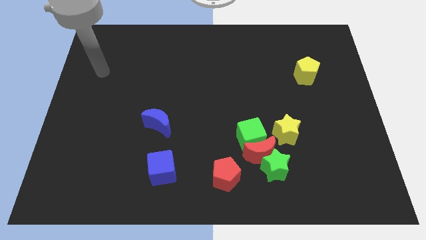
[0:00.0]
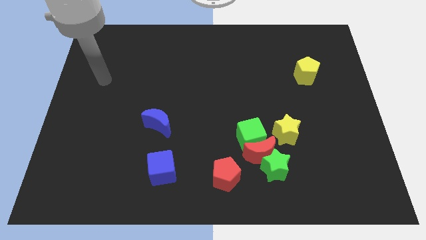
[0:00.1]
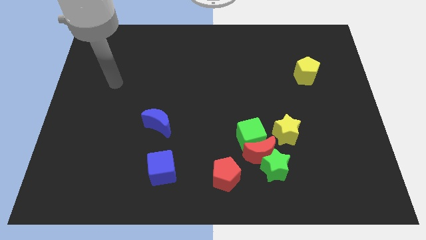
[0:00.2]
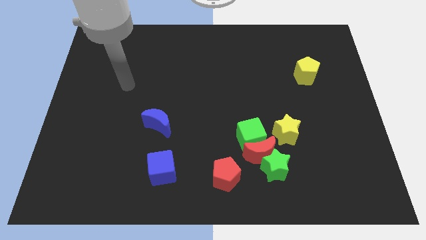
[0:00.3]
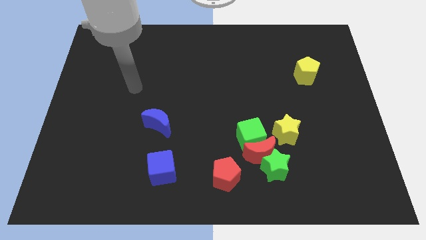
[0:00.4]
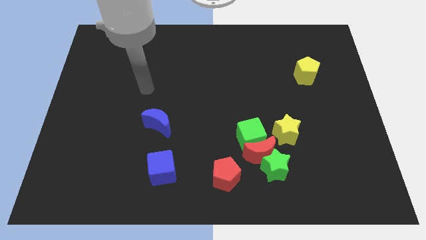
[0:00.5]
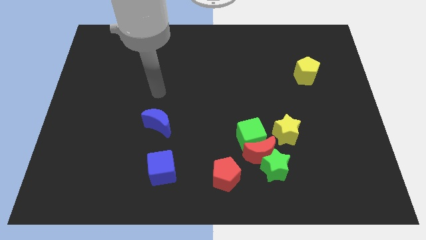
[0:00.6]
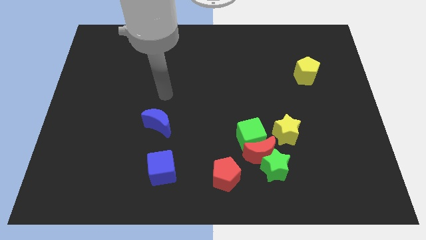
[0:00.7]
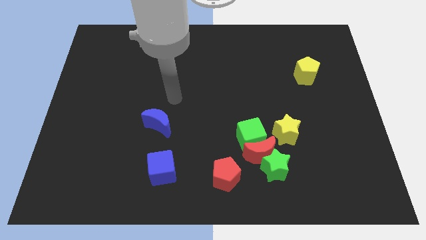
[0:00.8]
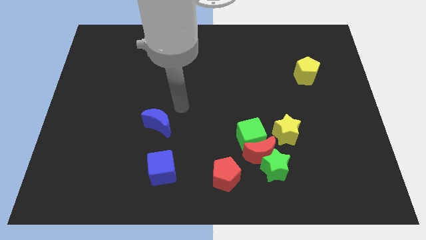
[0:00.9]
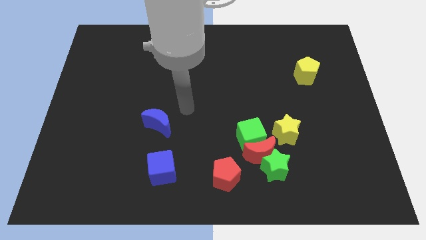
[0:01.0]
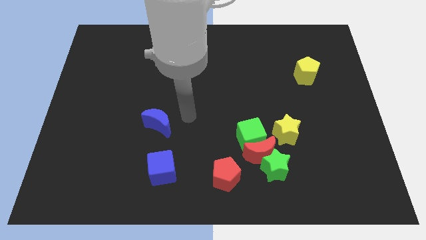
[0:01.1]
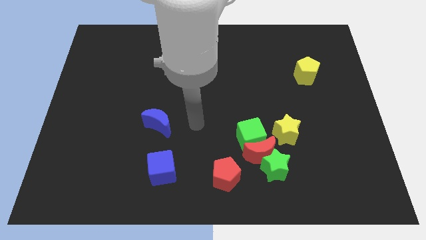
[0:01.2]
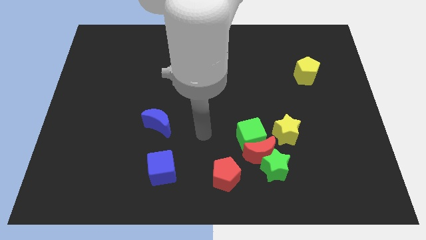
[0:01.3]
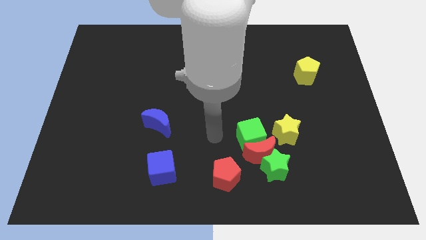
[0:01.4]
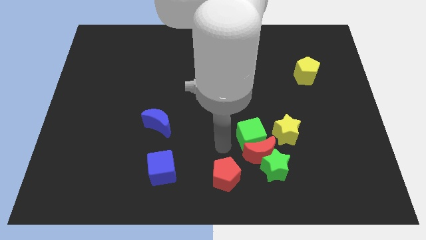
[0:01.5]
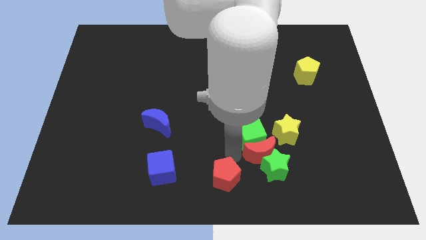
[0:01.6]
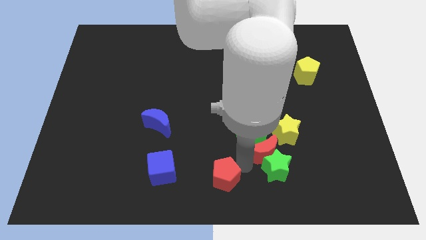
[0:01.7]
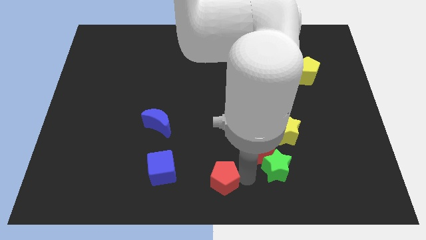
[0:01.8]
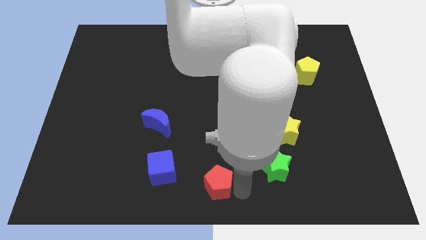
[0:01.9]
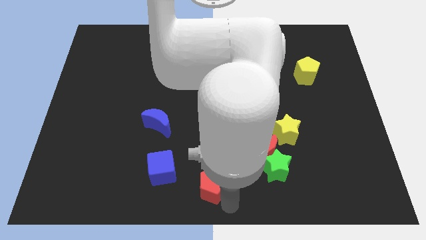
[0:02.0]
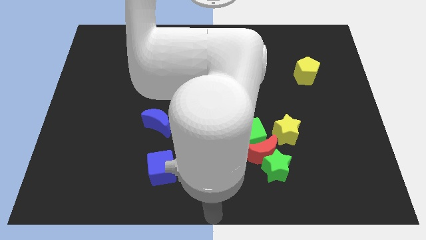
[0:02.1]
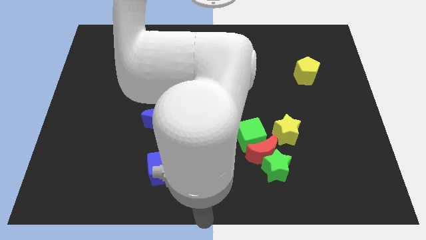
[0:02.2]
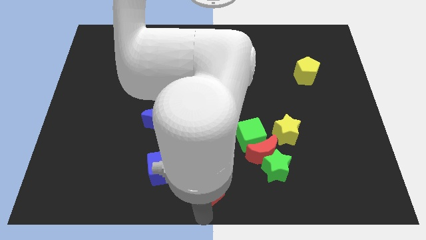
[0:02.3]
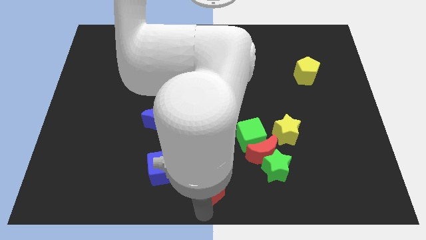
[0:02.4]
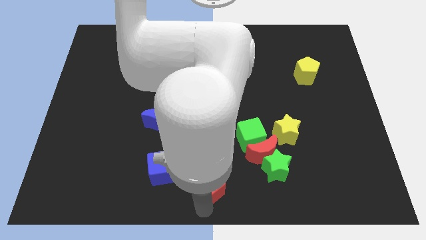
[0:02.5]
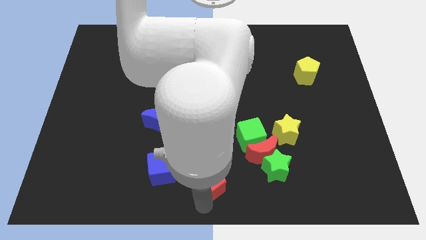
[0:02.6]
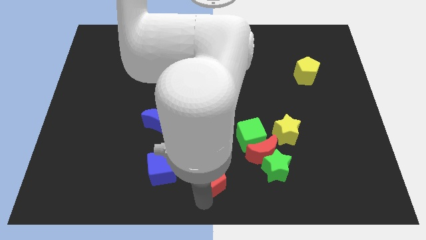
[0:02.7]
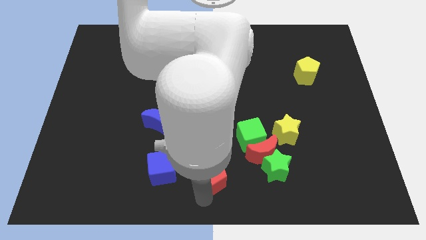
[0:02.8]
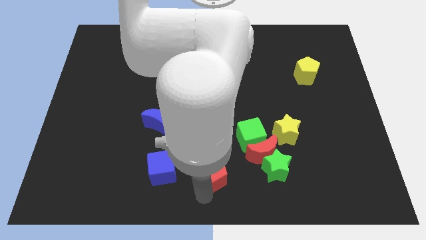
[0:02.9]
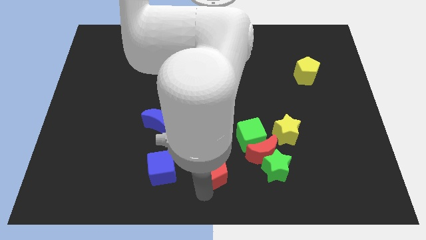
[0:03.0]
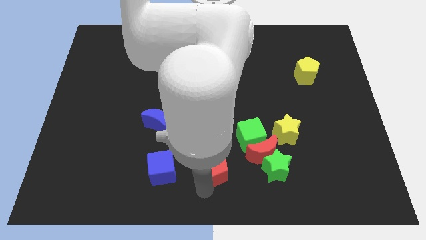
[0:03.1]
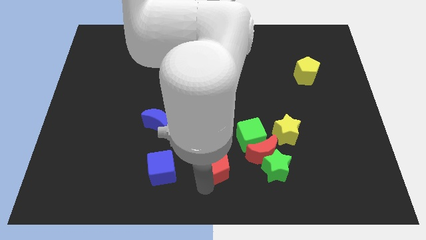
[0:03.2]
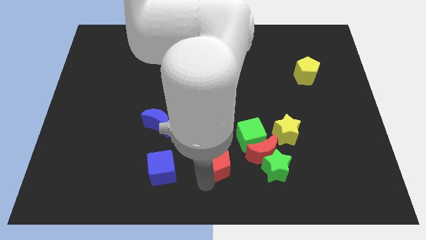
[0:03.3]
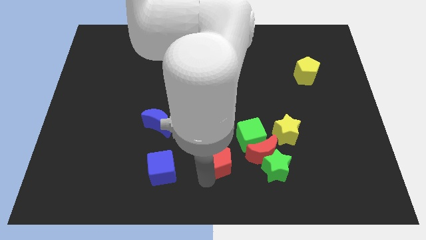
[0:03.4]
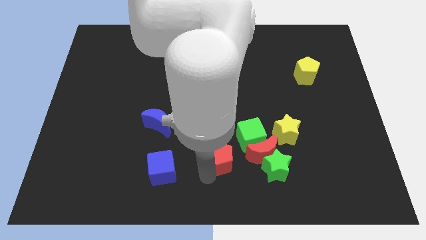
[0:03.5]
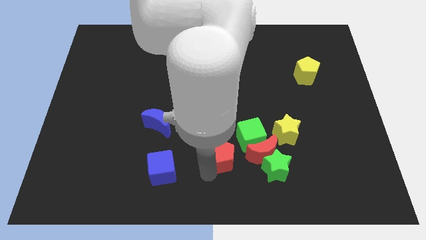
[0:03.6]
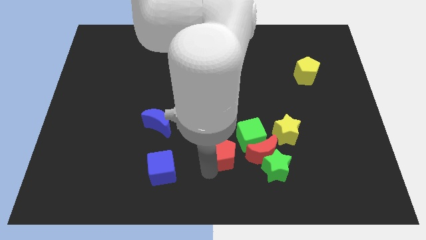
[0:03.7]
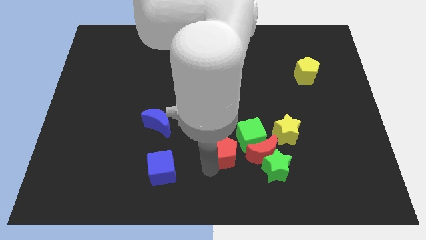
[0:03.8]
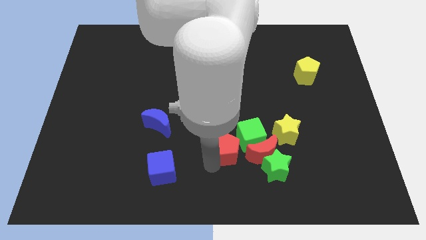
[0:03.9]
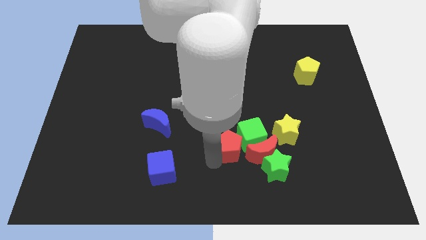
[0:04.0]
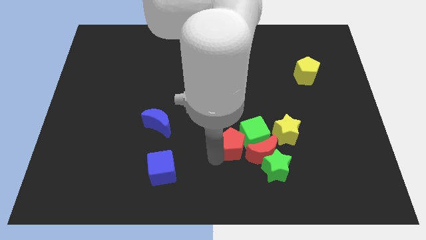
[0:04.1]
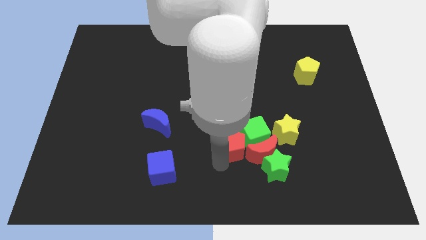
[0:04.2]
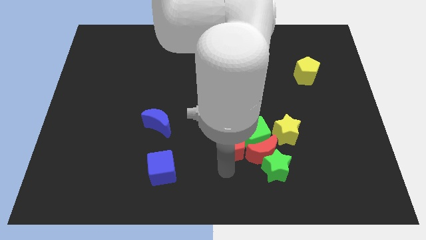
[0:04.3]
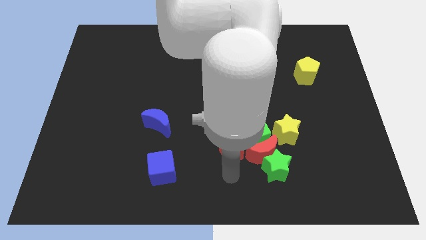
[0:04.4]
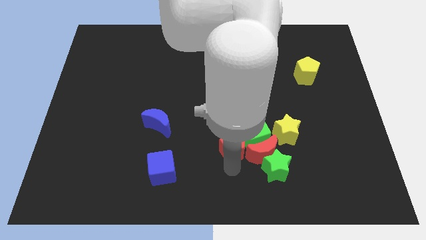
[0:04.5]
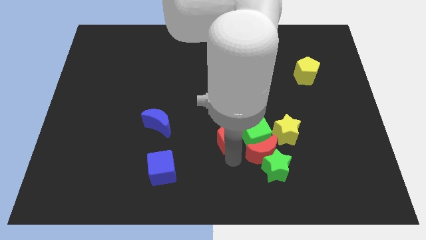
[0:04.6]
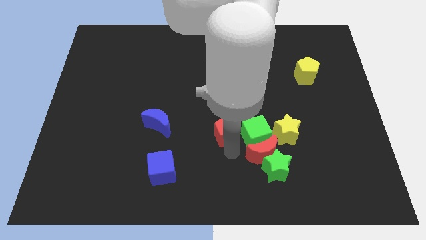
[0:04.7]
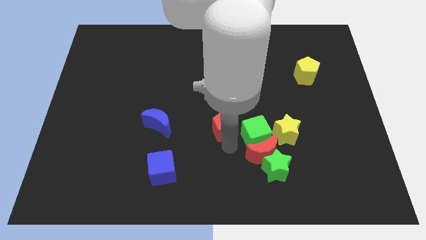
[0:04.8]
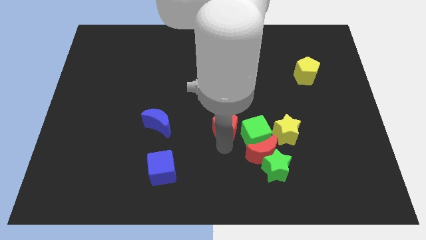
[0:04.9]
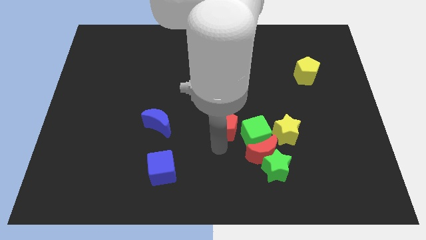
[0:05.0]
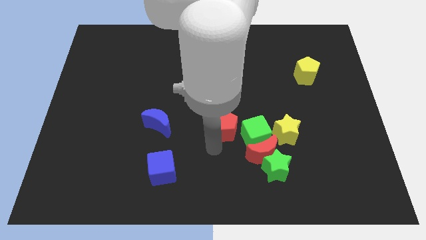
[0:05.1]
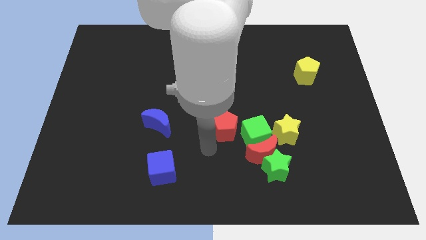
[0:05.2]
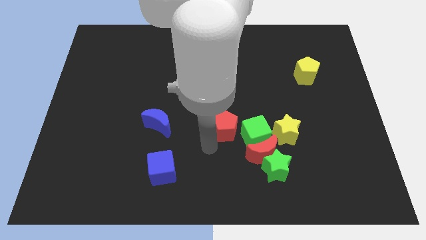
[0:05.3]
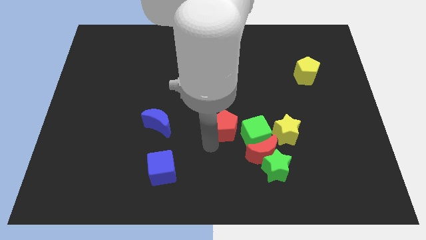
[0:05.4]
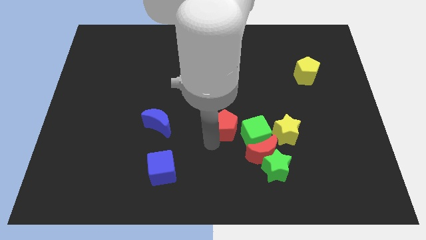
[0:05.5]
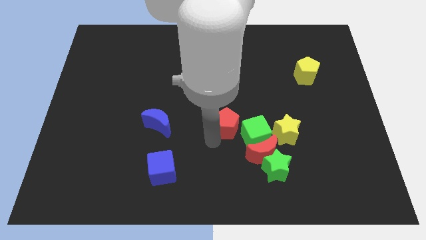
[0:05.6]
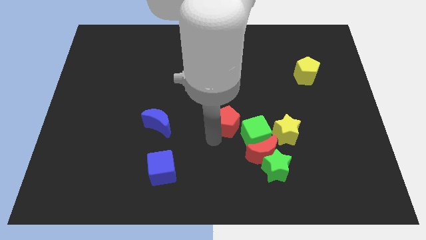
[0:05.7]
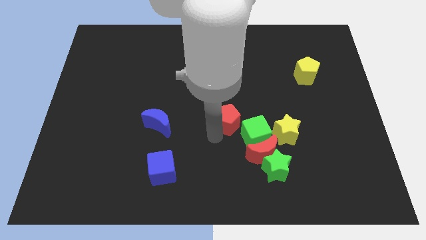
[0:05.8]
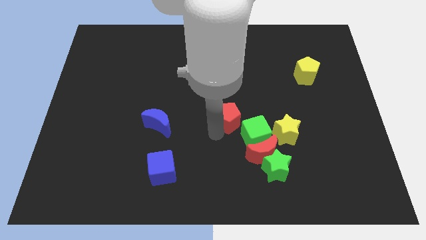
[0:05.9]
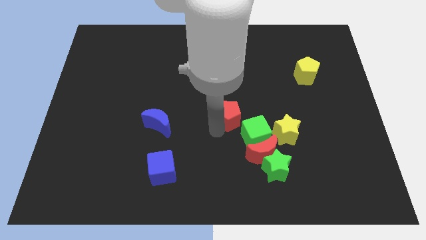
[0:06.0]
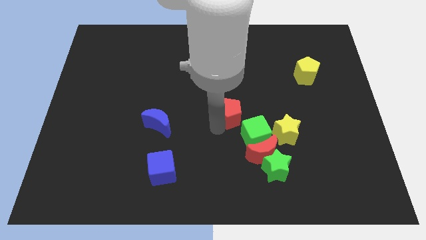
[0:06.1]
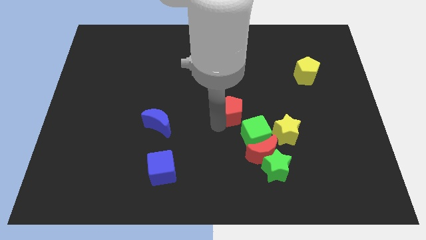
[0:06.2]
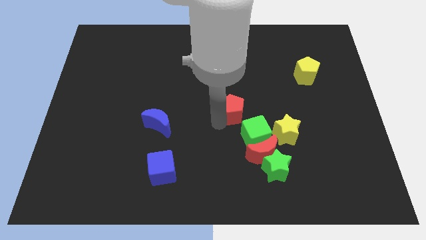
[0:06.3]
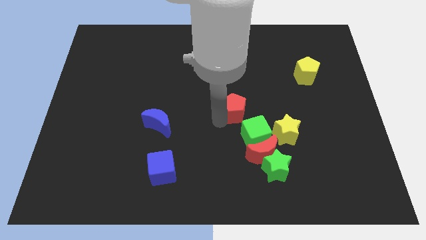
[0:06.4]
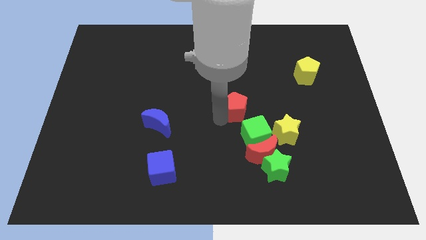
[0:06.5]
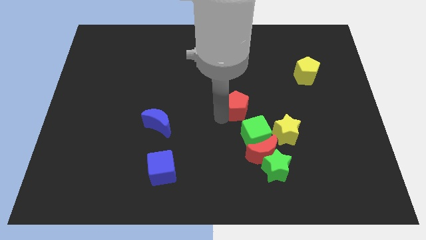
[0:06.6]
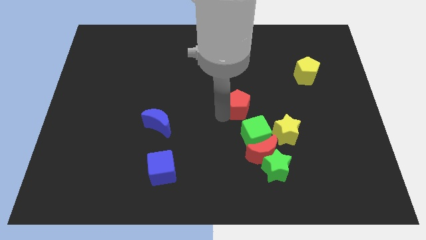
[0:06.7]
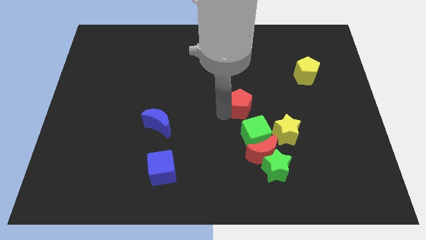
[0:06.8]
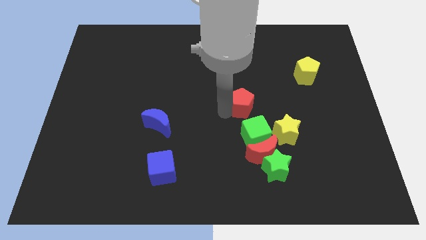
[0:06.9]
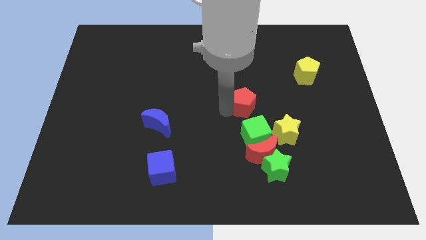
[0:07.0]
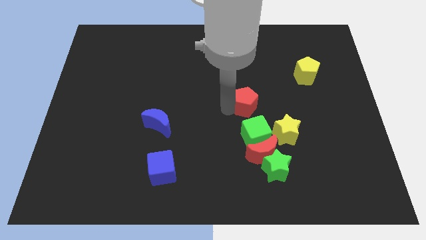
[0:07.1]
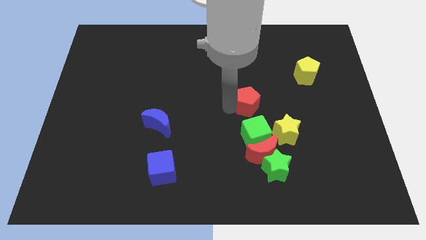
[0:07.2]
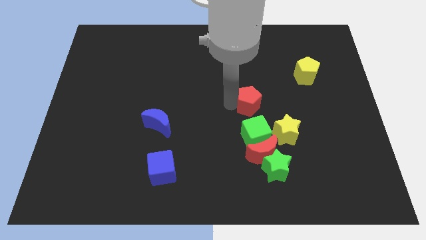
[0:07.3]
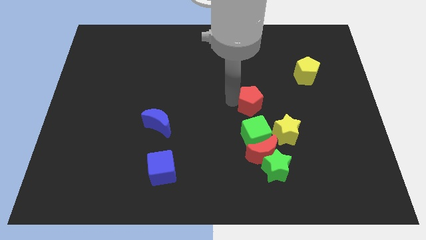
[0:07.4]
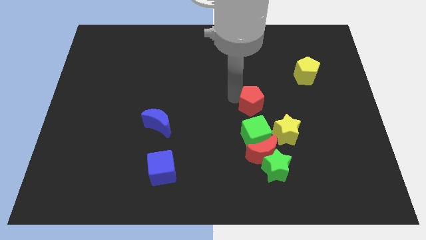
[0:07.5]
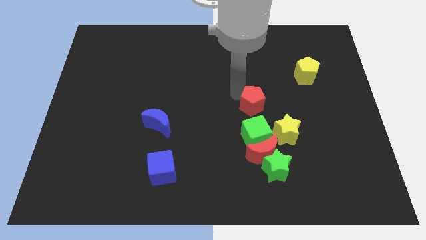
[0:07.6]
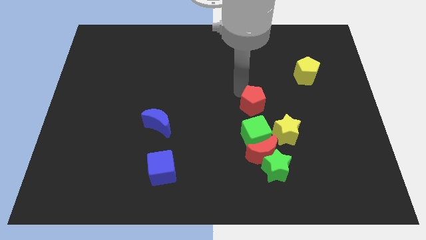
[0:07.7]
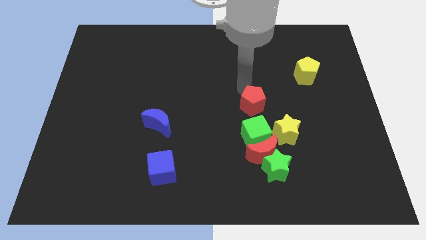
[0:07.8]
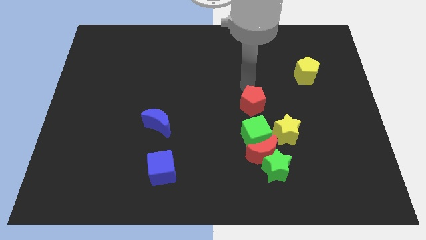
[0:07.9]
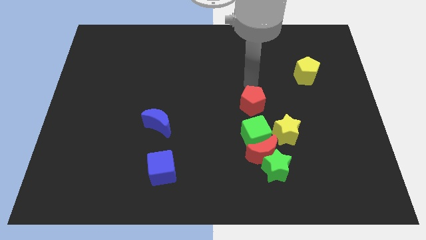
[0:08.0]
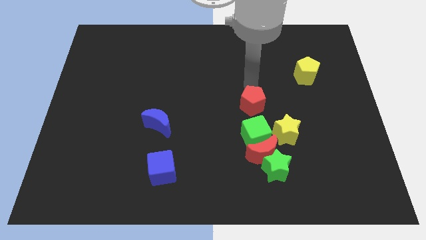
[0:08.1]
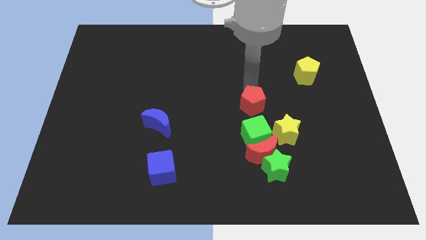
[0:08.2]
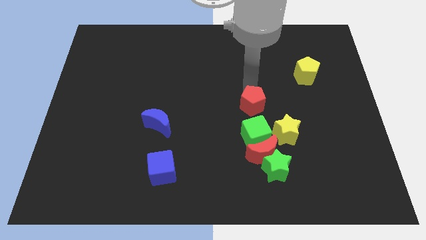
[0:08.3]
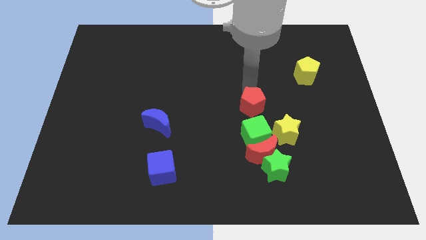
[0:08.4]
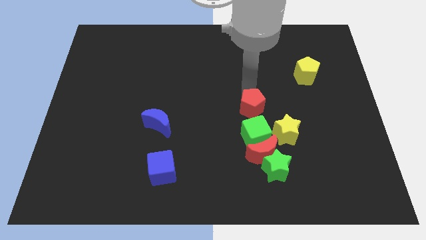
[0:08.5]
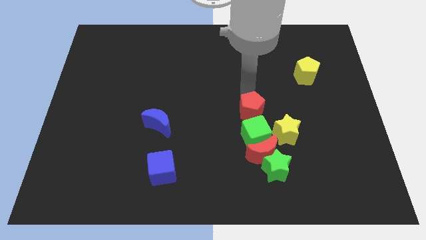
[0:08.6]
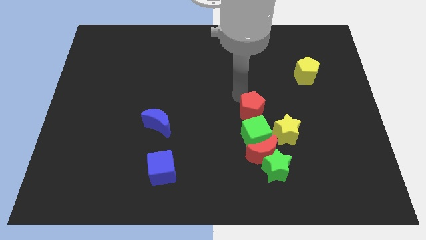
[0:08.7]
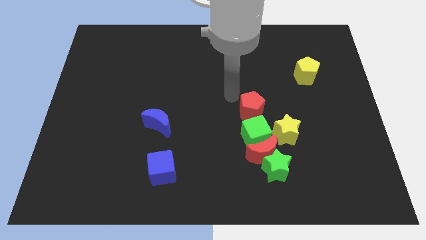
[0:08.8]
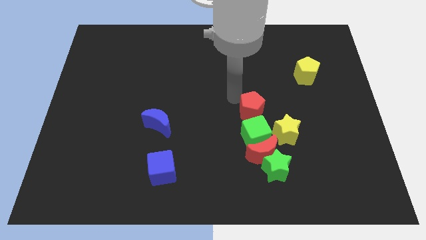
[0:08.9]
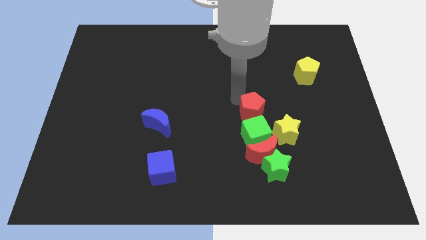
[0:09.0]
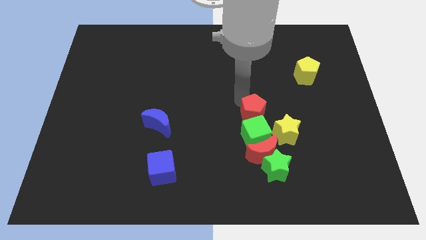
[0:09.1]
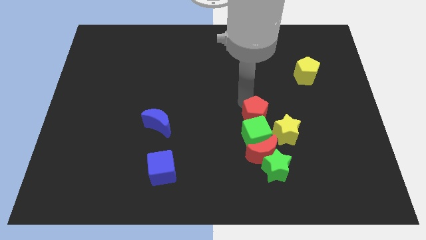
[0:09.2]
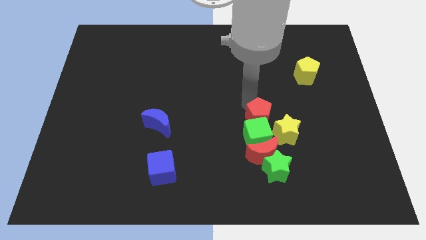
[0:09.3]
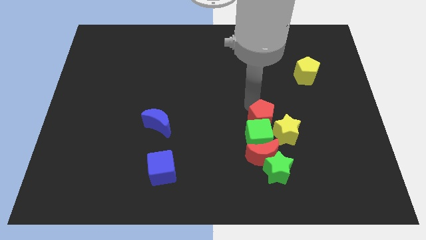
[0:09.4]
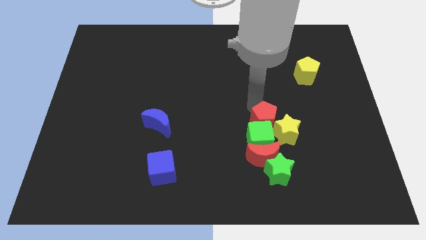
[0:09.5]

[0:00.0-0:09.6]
push the red pentagon next to the yellow star
